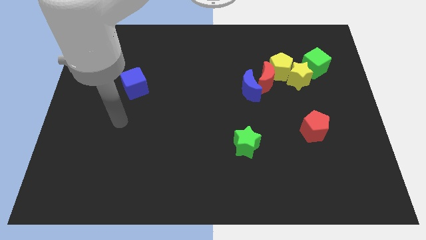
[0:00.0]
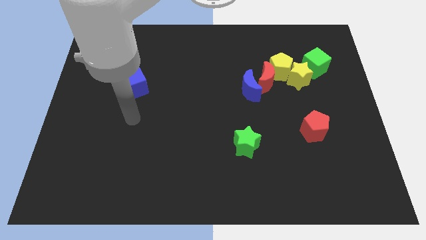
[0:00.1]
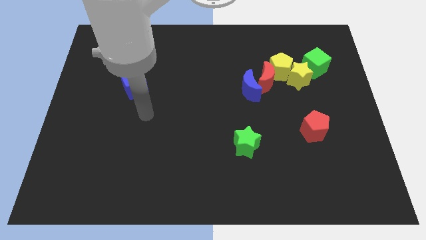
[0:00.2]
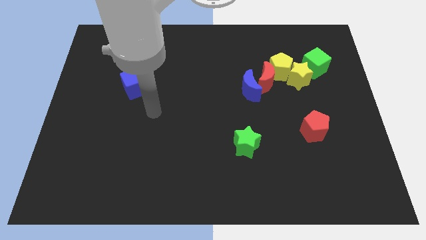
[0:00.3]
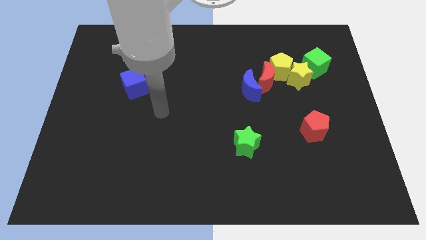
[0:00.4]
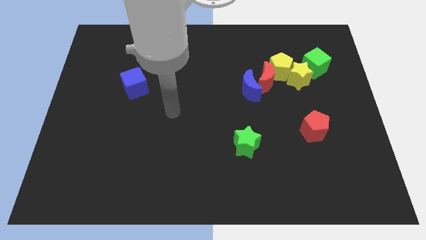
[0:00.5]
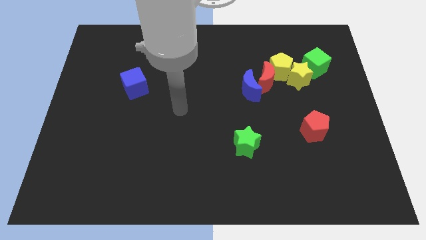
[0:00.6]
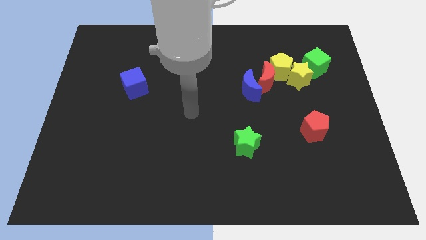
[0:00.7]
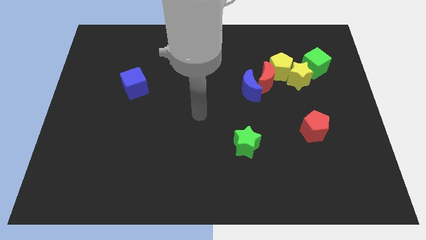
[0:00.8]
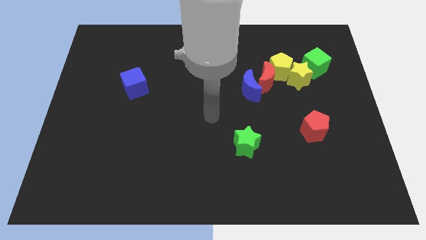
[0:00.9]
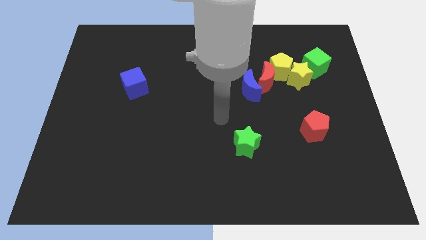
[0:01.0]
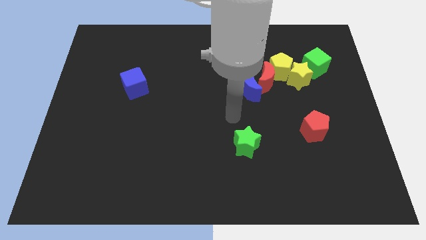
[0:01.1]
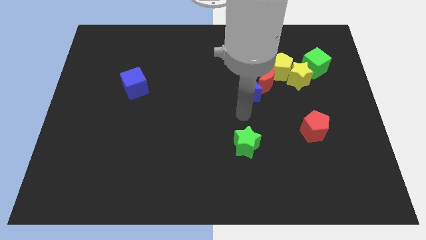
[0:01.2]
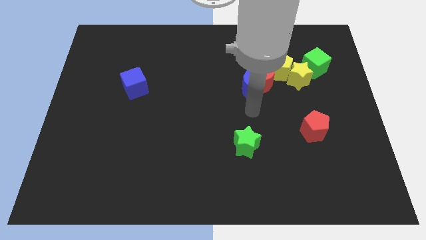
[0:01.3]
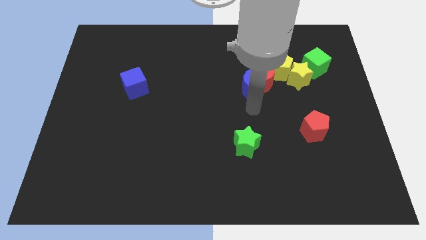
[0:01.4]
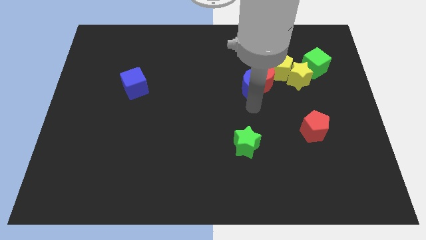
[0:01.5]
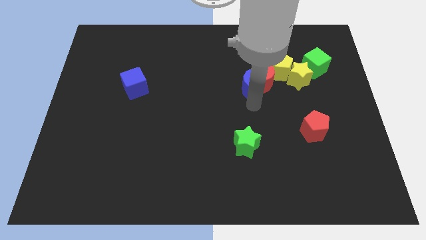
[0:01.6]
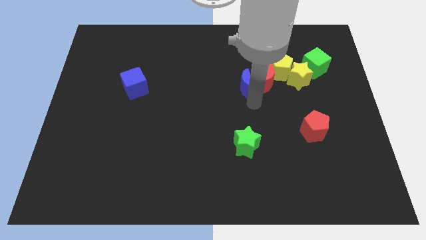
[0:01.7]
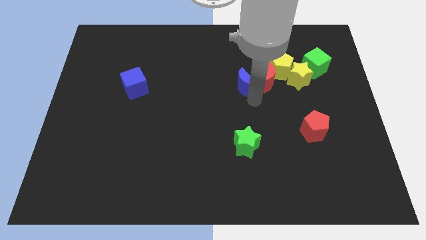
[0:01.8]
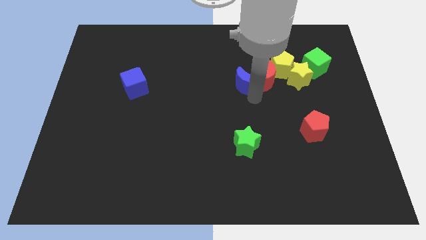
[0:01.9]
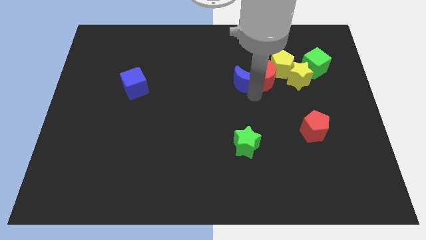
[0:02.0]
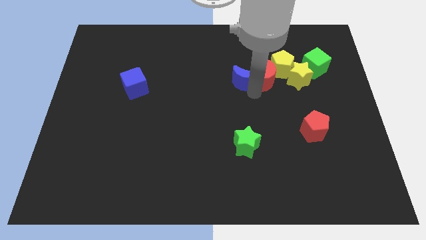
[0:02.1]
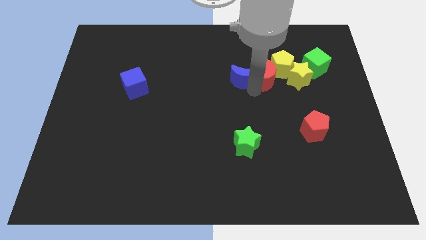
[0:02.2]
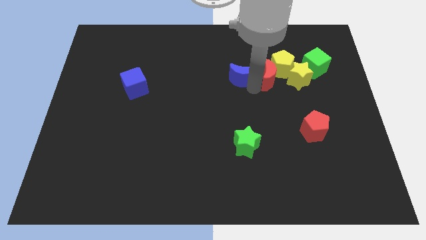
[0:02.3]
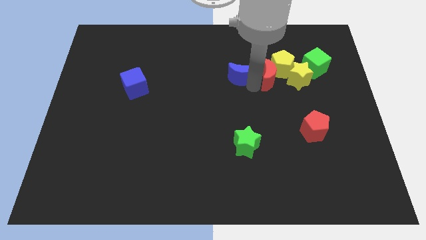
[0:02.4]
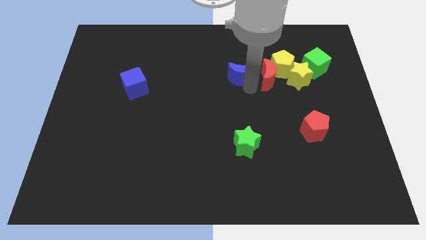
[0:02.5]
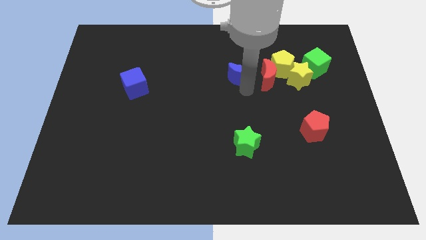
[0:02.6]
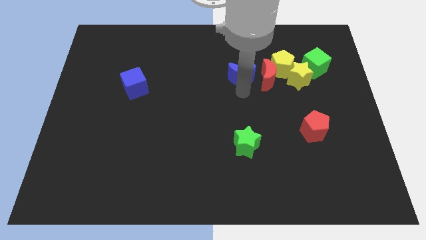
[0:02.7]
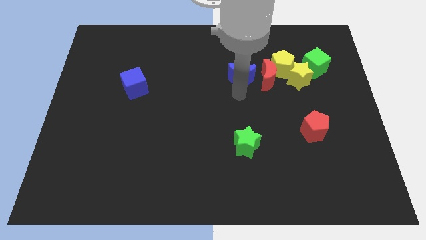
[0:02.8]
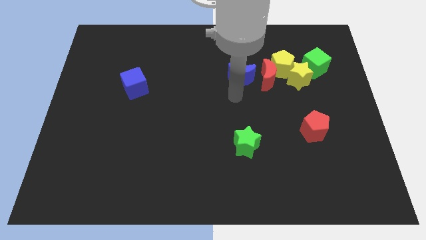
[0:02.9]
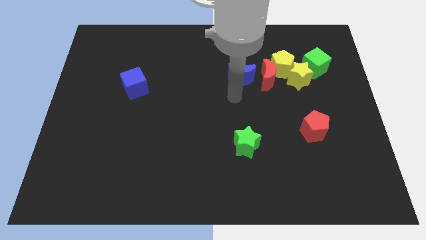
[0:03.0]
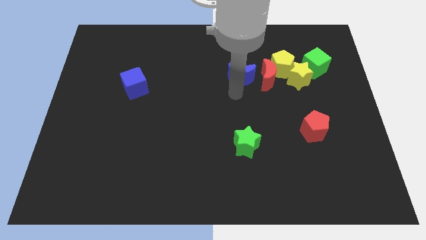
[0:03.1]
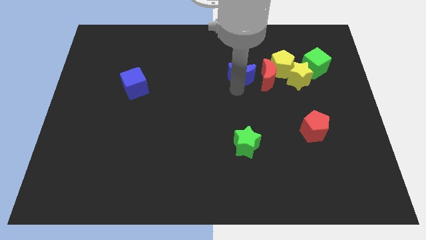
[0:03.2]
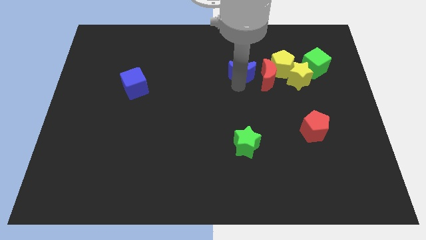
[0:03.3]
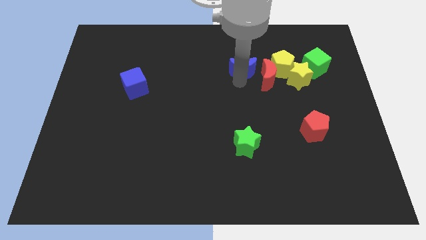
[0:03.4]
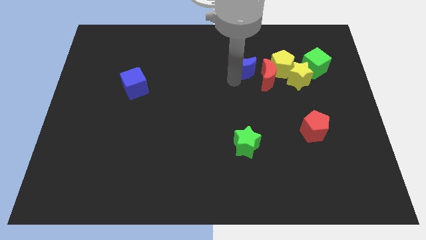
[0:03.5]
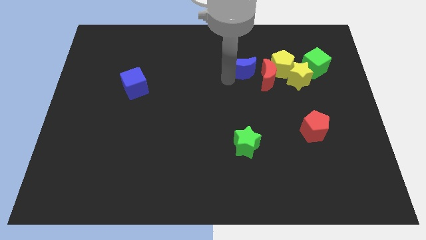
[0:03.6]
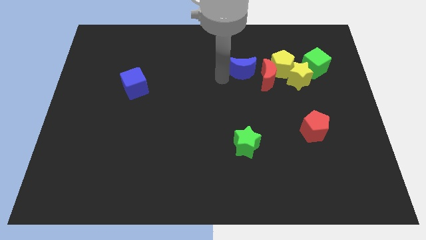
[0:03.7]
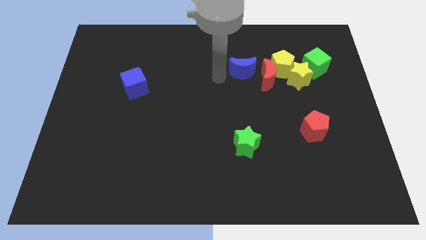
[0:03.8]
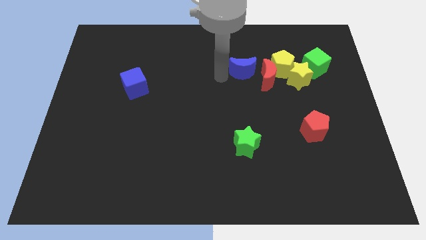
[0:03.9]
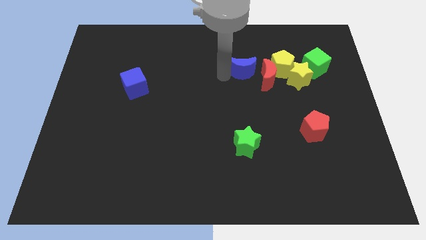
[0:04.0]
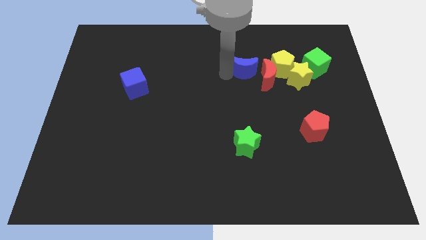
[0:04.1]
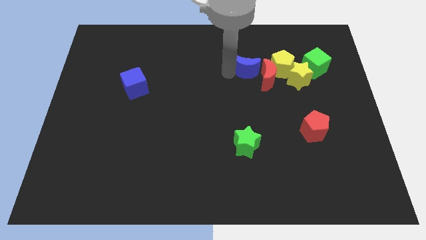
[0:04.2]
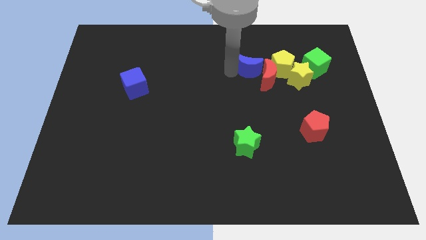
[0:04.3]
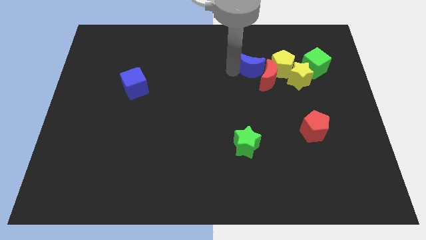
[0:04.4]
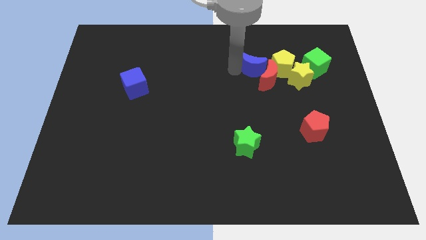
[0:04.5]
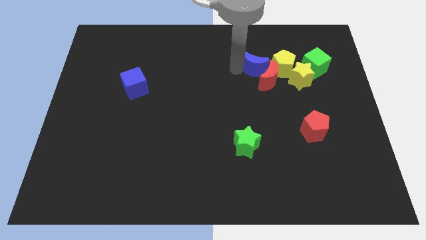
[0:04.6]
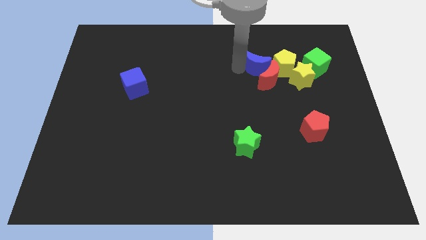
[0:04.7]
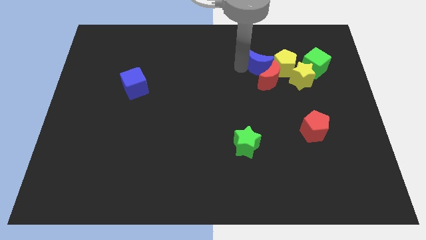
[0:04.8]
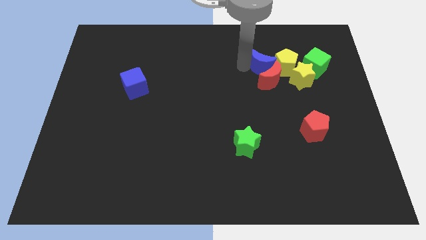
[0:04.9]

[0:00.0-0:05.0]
push the blue moon next to the yellow pentagon

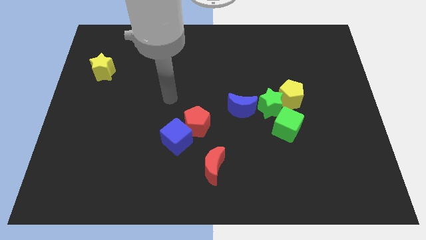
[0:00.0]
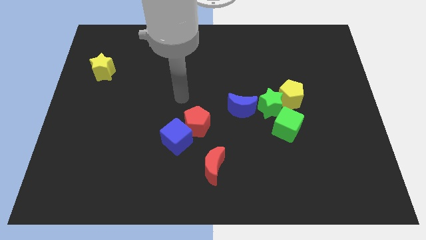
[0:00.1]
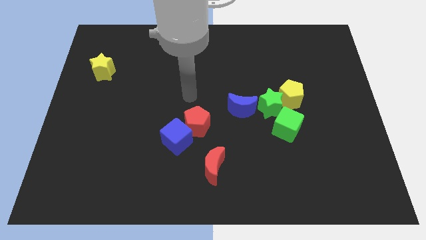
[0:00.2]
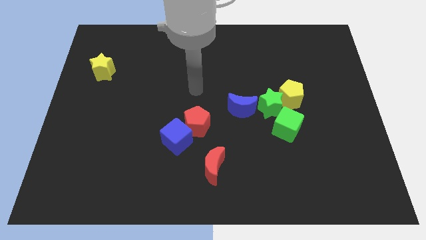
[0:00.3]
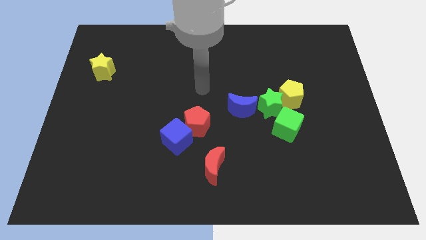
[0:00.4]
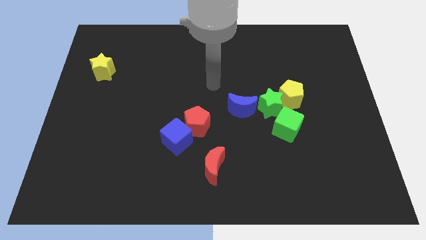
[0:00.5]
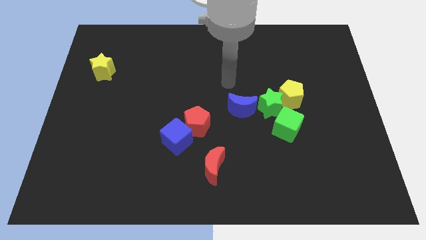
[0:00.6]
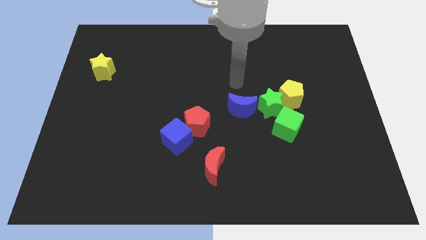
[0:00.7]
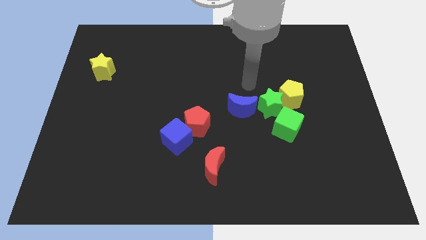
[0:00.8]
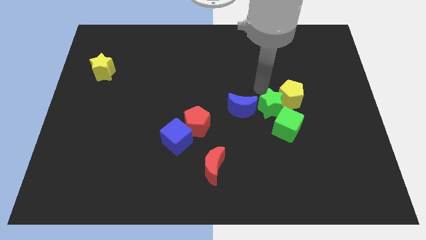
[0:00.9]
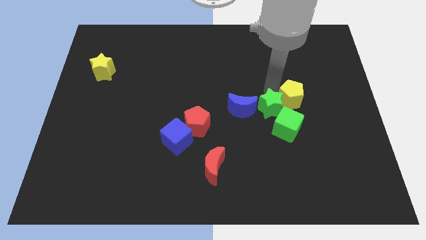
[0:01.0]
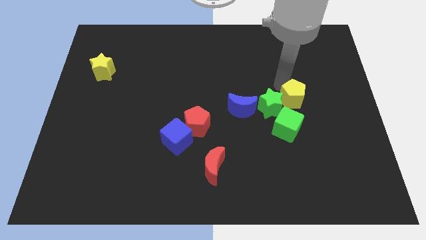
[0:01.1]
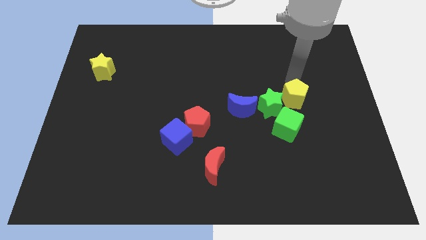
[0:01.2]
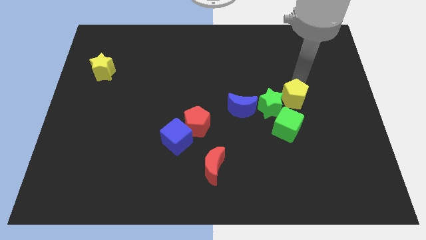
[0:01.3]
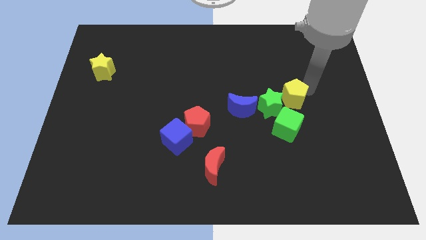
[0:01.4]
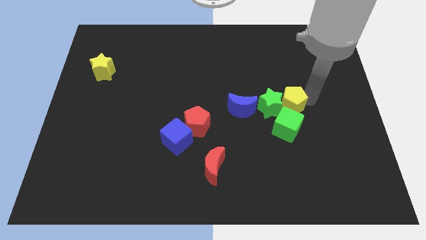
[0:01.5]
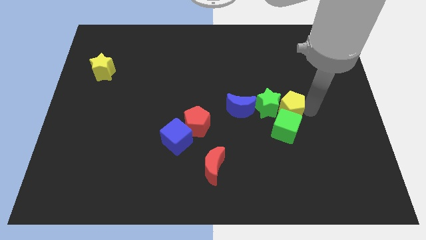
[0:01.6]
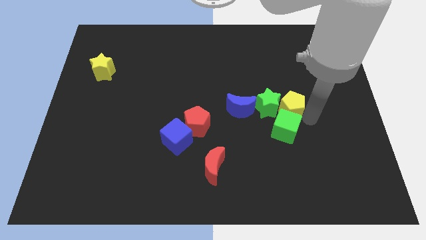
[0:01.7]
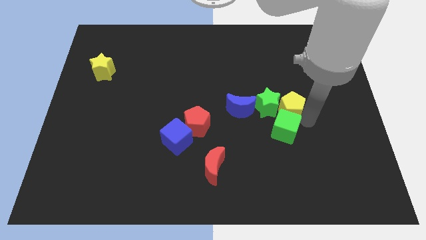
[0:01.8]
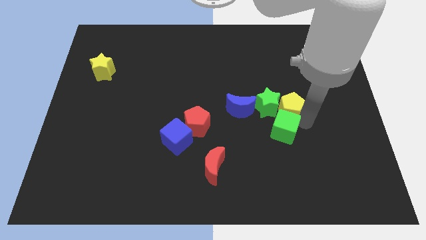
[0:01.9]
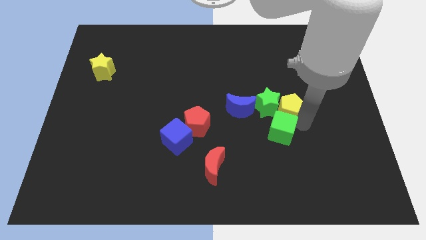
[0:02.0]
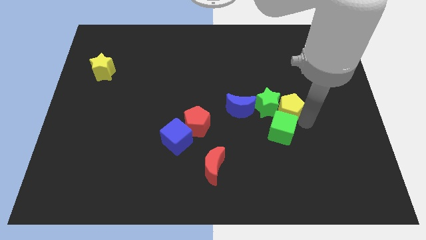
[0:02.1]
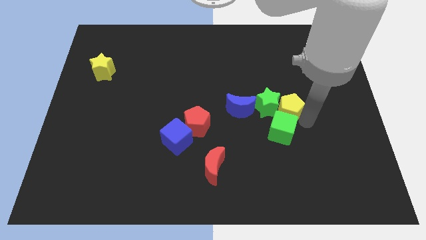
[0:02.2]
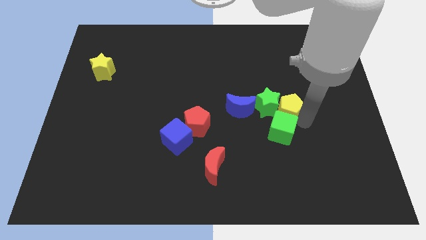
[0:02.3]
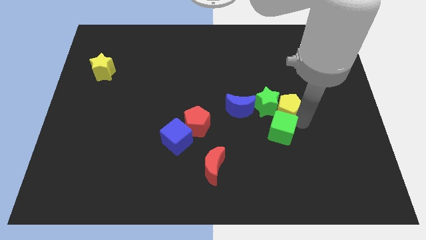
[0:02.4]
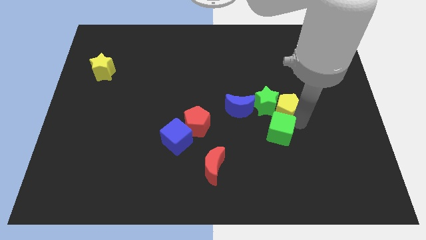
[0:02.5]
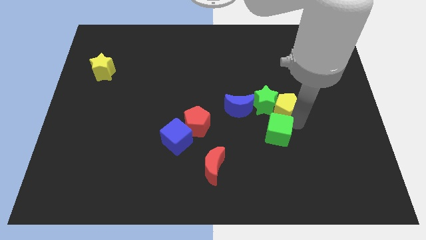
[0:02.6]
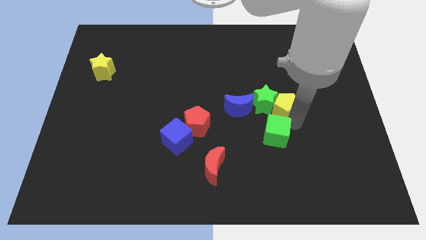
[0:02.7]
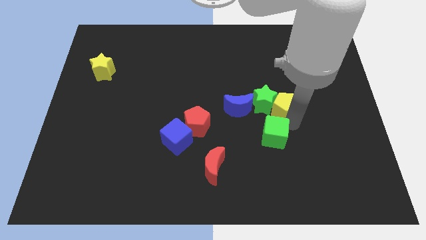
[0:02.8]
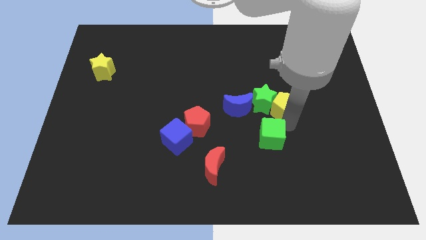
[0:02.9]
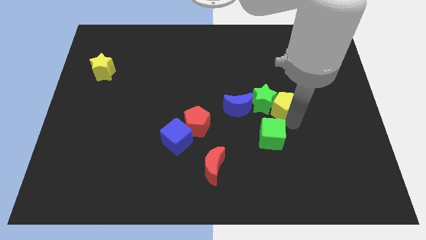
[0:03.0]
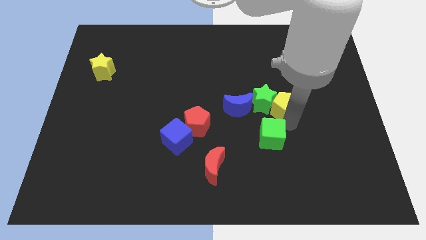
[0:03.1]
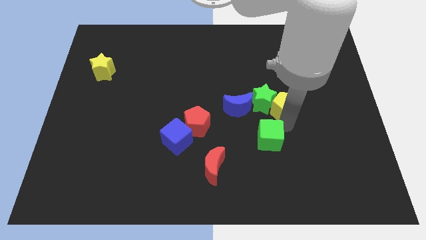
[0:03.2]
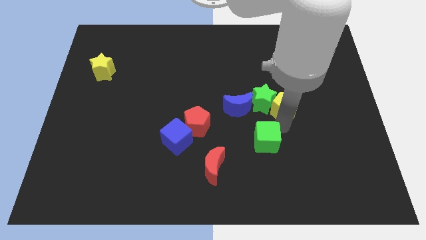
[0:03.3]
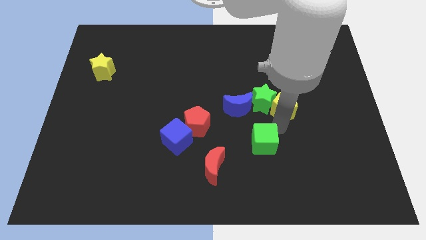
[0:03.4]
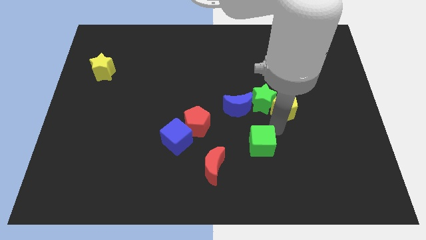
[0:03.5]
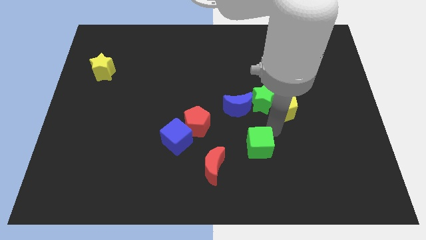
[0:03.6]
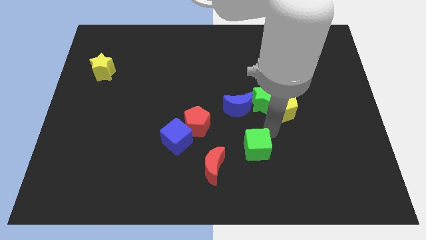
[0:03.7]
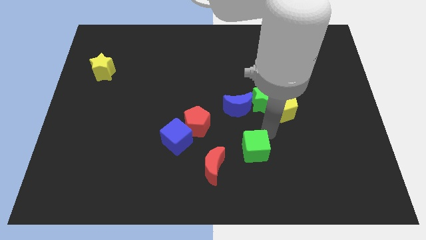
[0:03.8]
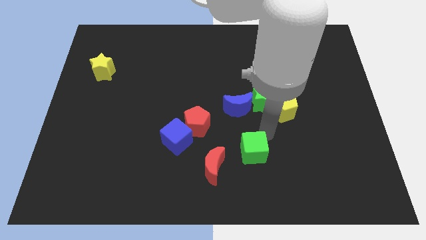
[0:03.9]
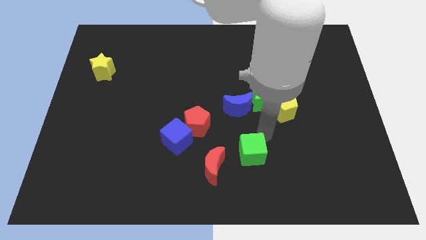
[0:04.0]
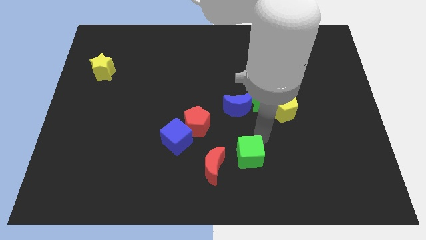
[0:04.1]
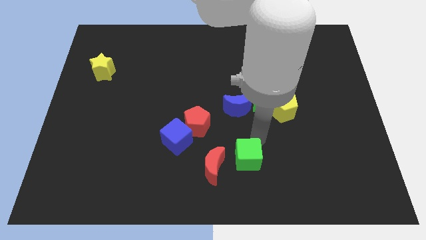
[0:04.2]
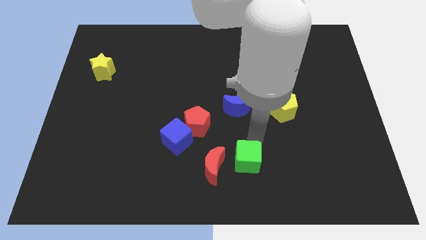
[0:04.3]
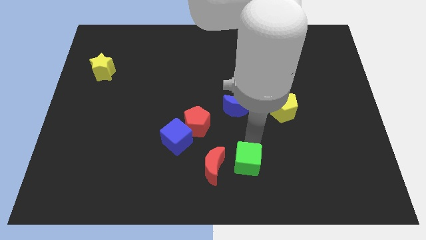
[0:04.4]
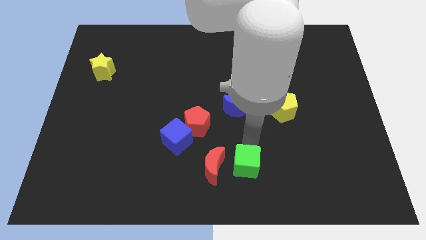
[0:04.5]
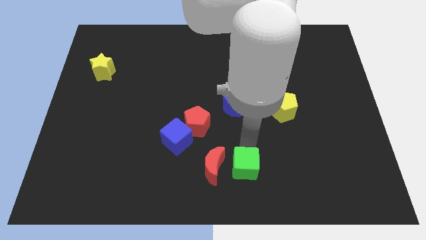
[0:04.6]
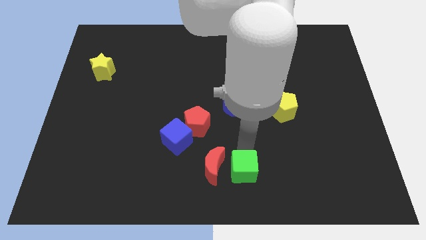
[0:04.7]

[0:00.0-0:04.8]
move the green cube next to the red moon
